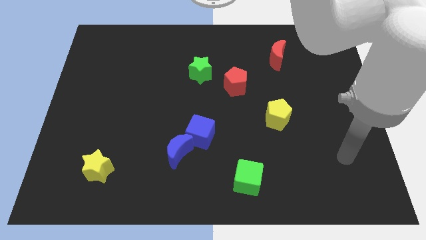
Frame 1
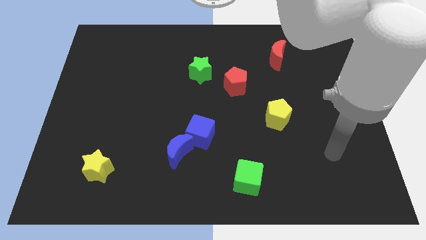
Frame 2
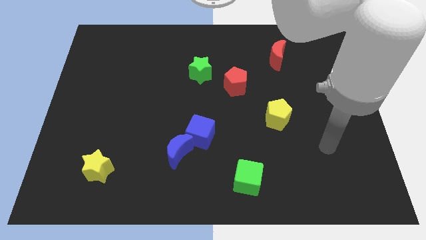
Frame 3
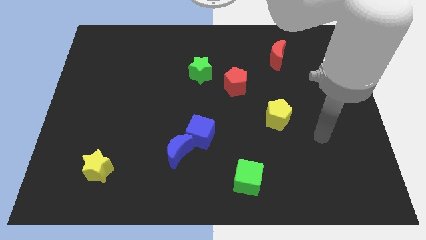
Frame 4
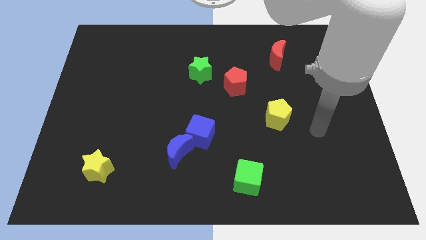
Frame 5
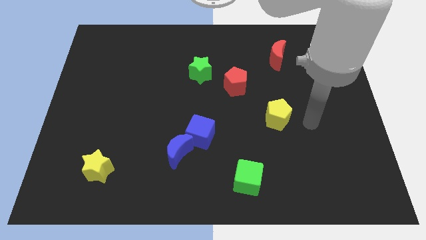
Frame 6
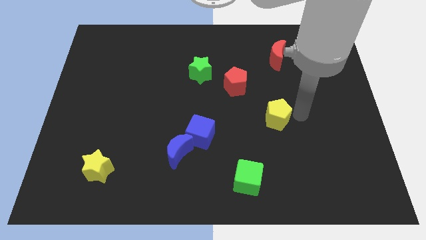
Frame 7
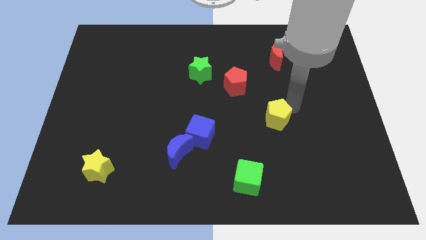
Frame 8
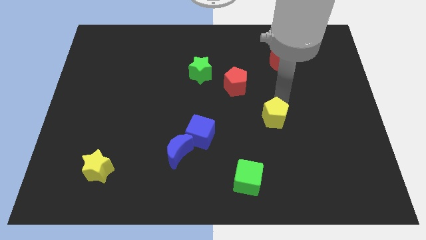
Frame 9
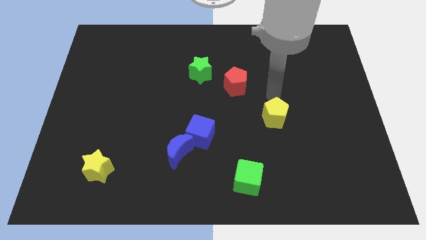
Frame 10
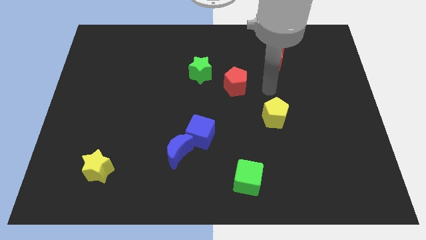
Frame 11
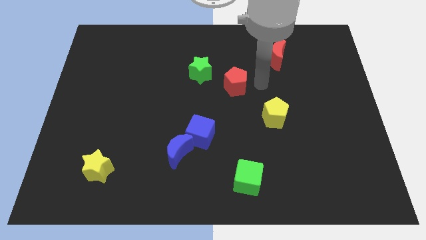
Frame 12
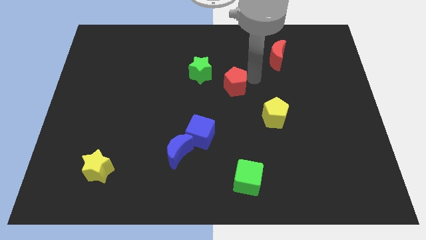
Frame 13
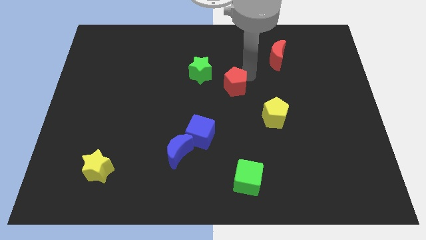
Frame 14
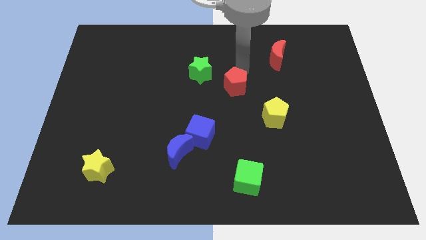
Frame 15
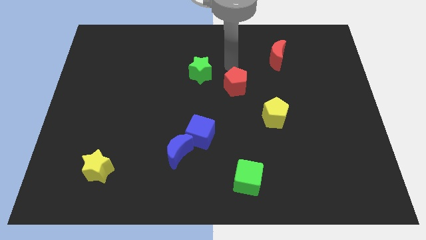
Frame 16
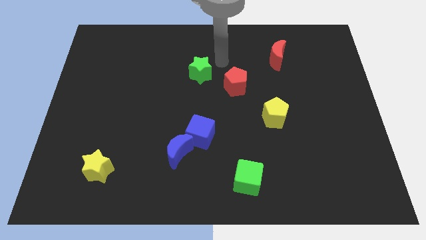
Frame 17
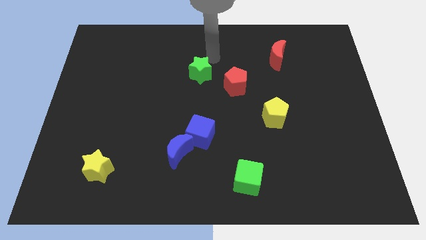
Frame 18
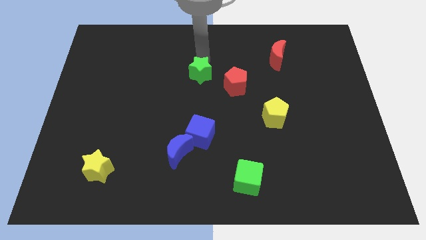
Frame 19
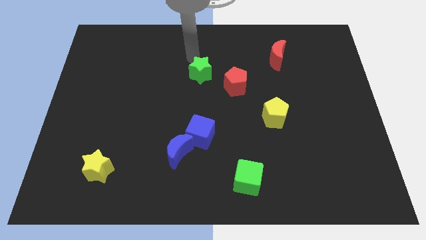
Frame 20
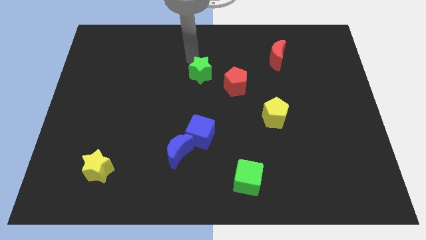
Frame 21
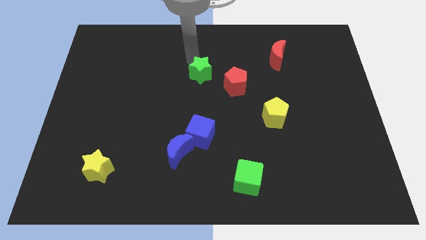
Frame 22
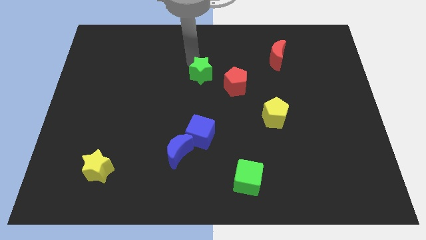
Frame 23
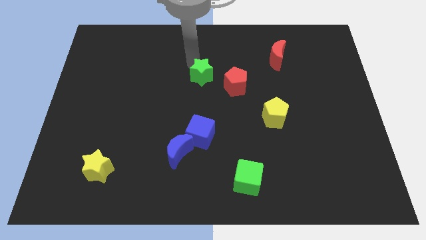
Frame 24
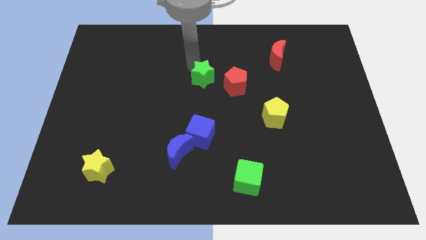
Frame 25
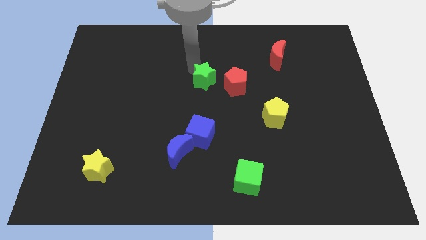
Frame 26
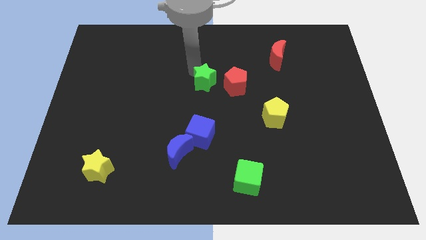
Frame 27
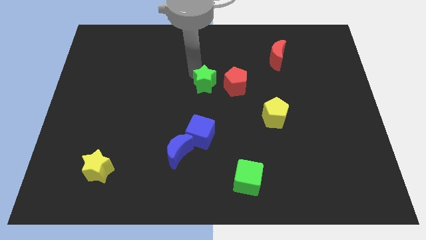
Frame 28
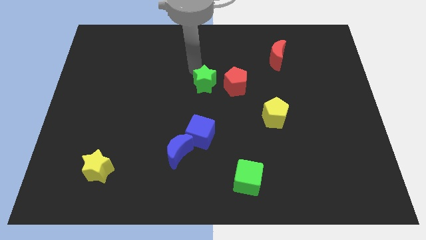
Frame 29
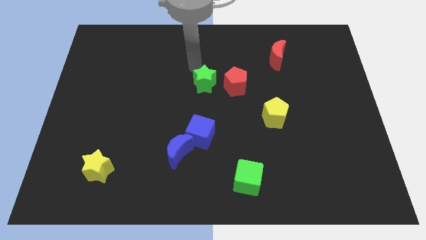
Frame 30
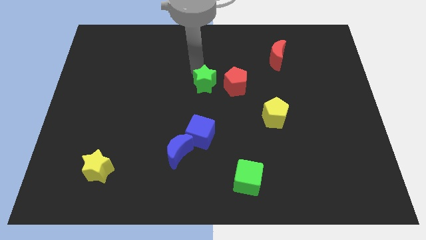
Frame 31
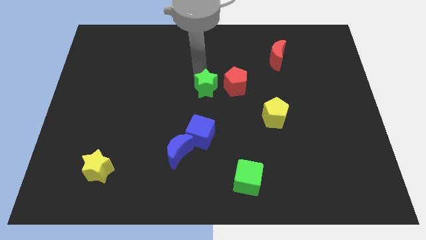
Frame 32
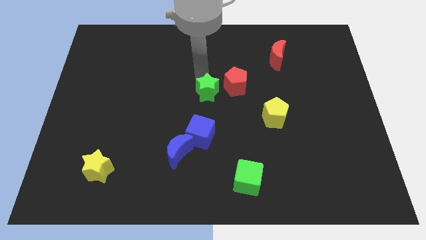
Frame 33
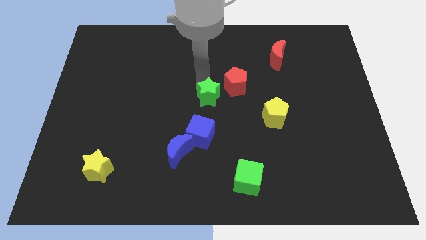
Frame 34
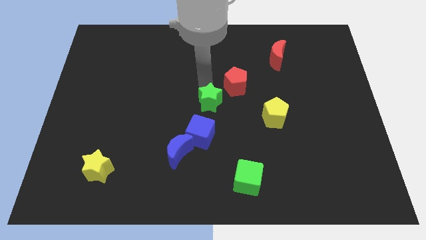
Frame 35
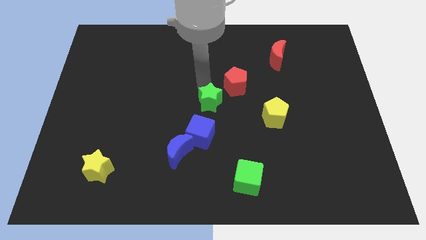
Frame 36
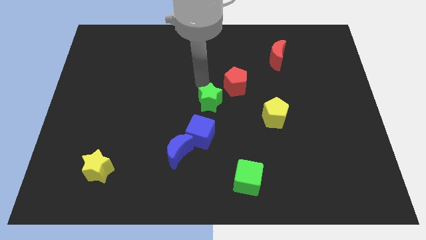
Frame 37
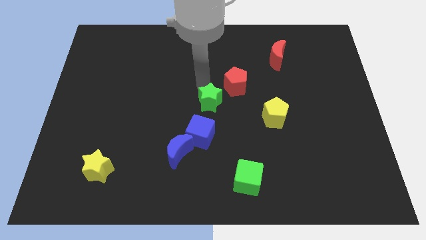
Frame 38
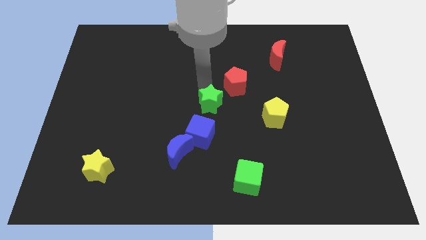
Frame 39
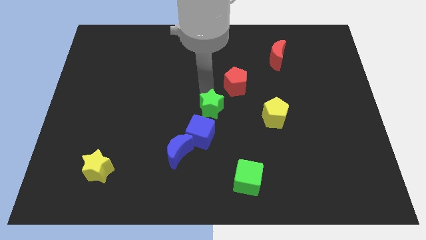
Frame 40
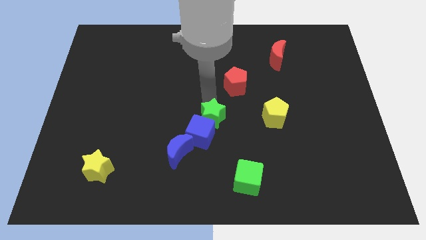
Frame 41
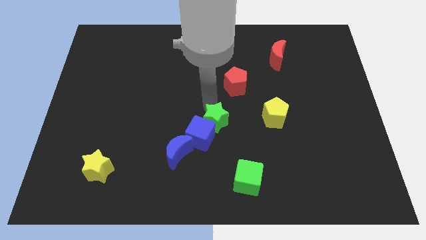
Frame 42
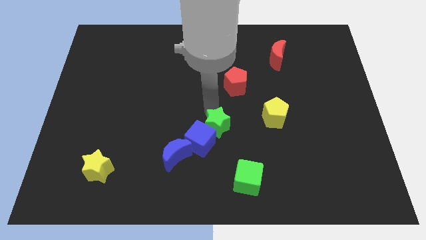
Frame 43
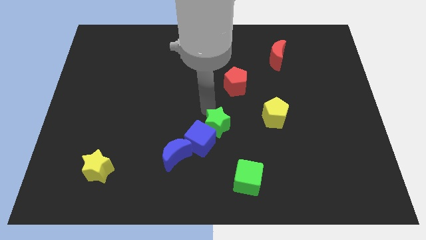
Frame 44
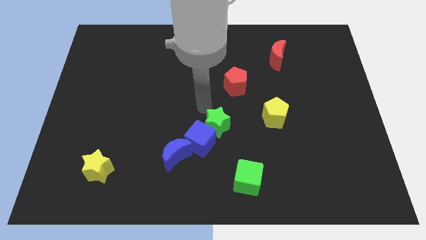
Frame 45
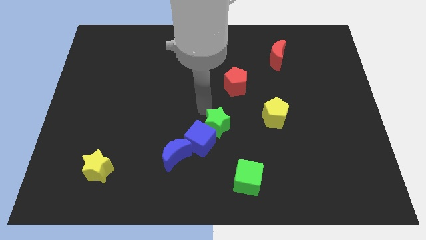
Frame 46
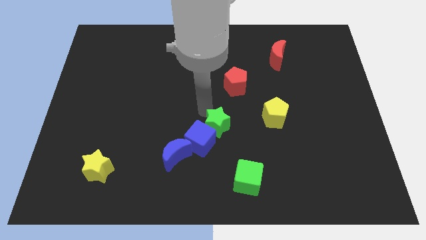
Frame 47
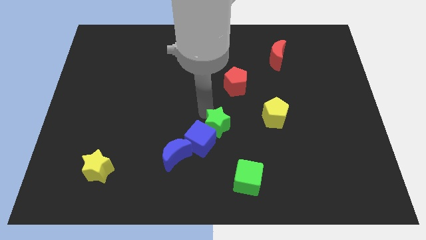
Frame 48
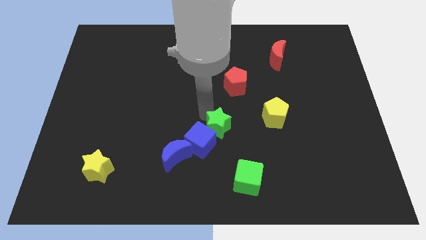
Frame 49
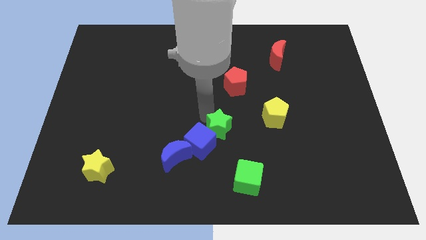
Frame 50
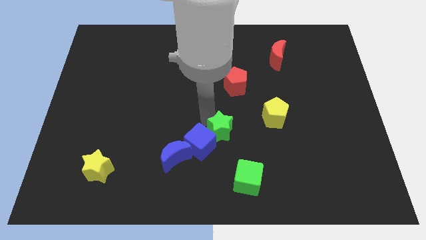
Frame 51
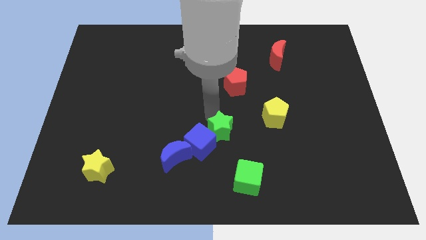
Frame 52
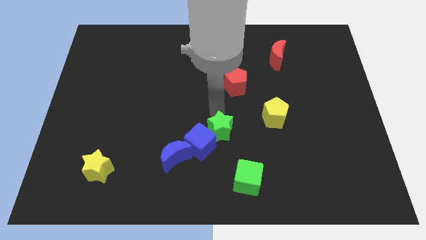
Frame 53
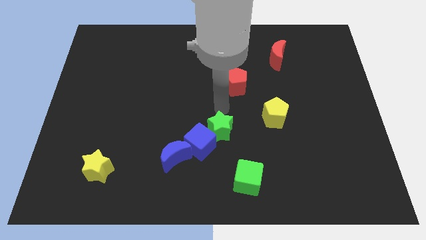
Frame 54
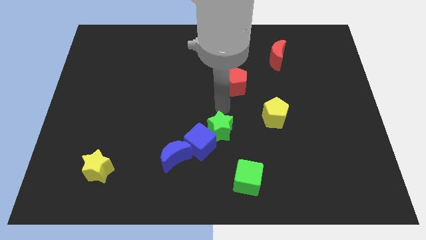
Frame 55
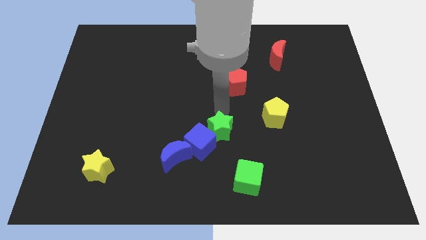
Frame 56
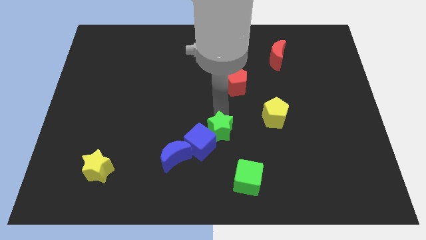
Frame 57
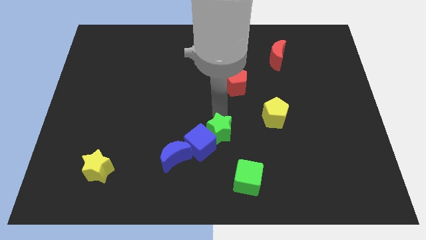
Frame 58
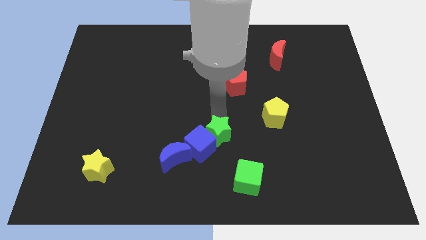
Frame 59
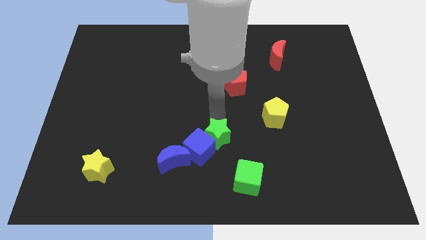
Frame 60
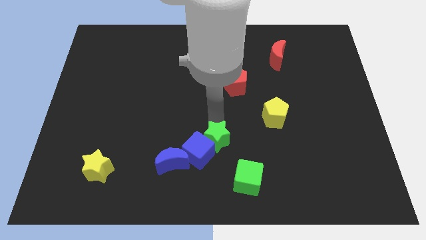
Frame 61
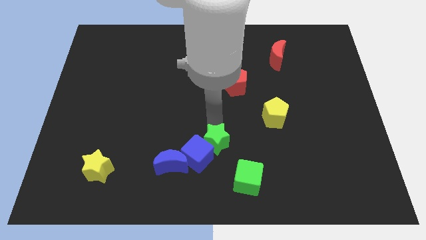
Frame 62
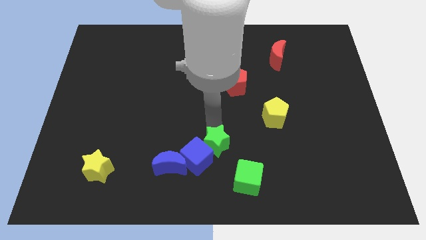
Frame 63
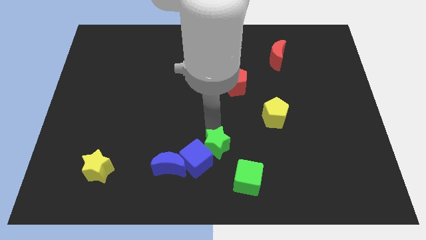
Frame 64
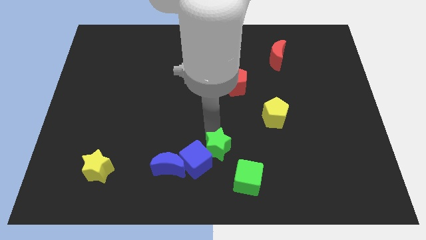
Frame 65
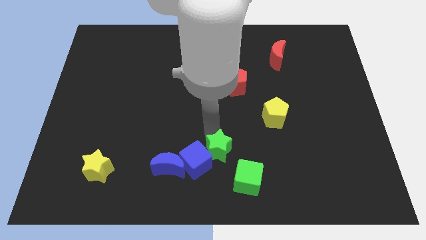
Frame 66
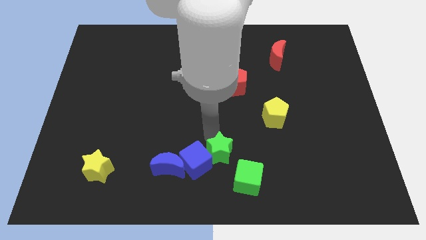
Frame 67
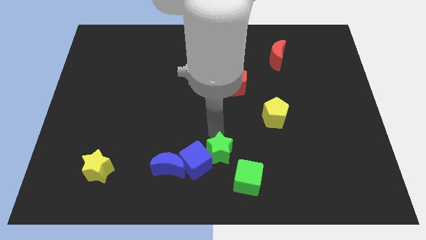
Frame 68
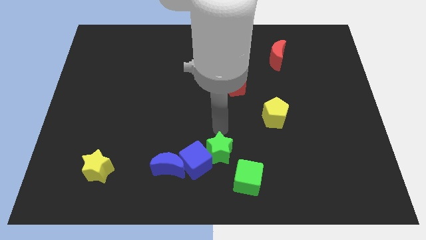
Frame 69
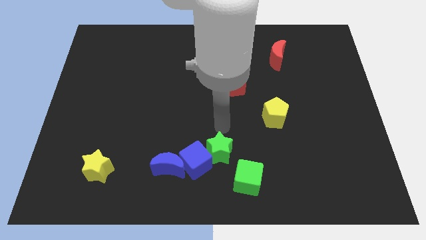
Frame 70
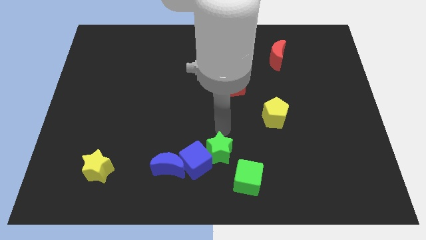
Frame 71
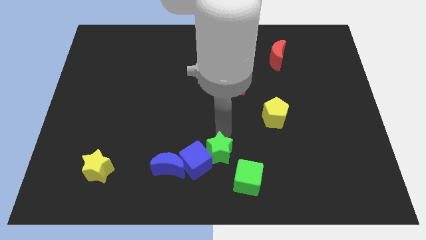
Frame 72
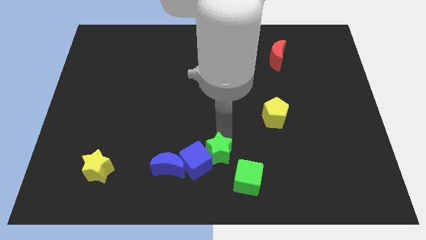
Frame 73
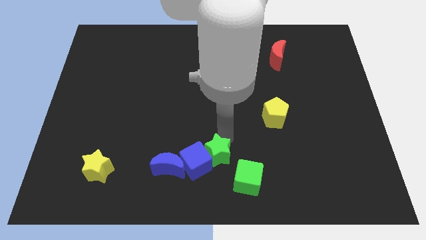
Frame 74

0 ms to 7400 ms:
move the green star to the bottom side
